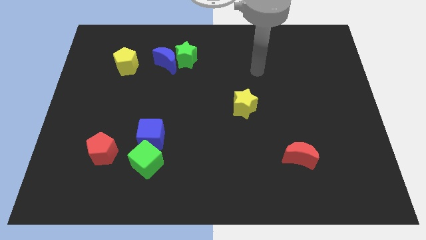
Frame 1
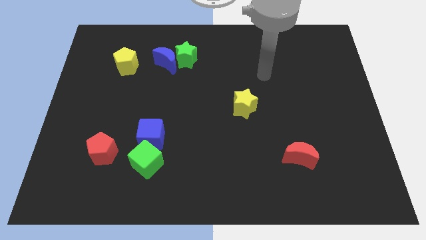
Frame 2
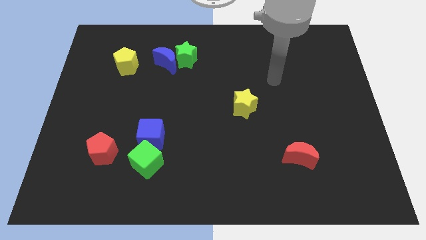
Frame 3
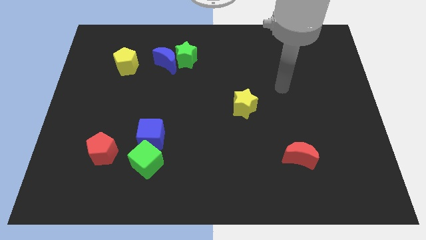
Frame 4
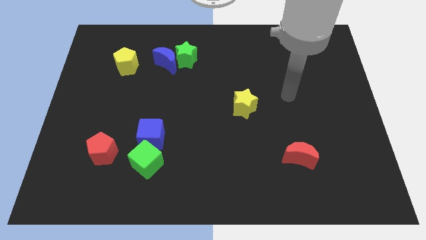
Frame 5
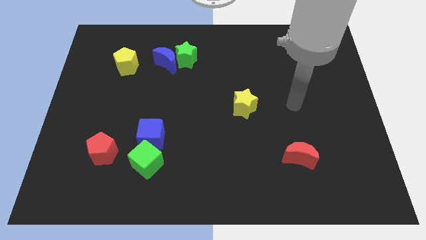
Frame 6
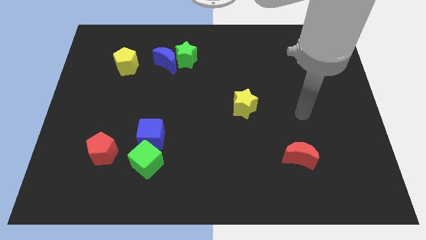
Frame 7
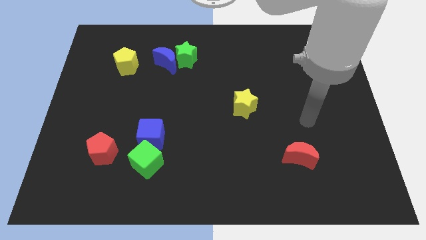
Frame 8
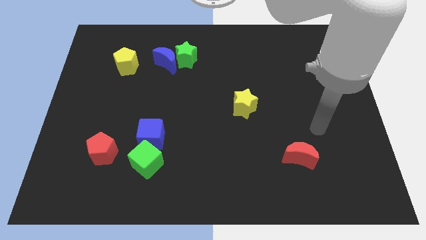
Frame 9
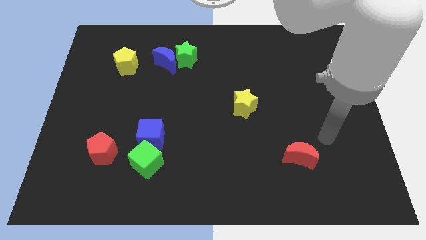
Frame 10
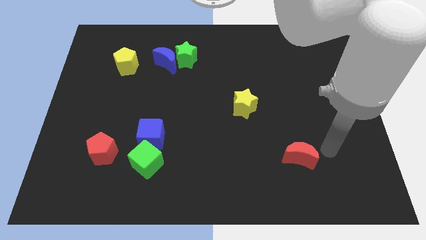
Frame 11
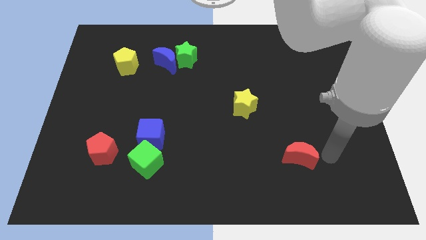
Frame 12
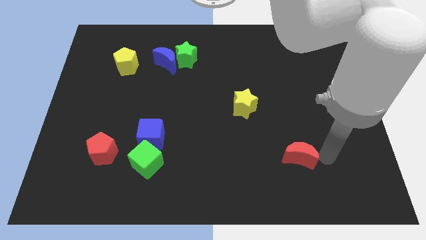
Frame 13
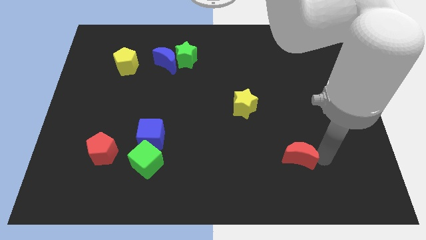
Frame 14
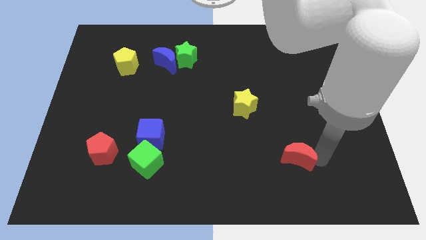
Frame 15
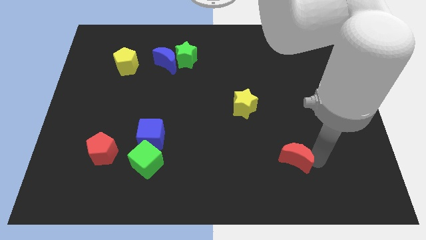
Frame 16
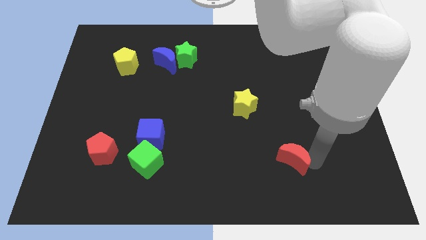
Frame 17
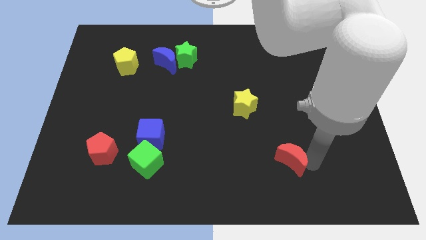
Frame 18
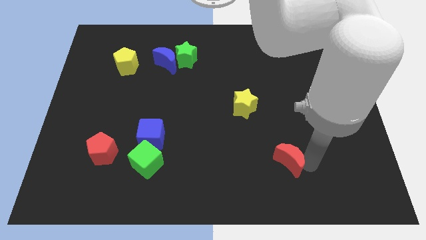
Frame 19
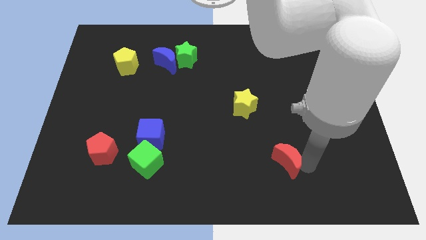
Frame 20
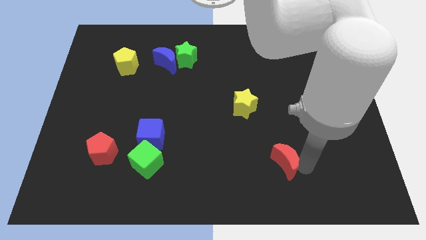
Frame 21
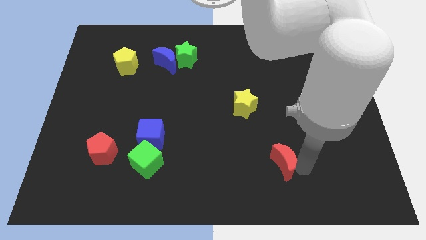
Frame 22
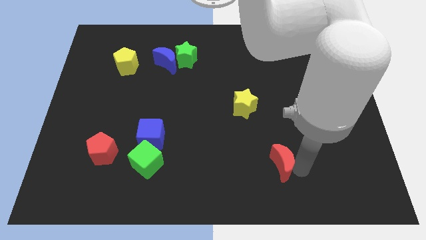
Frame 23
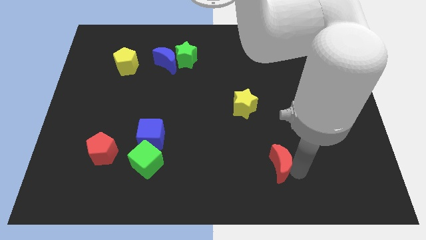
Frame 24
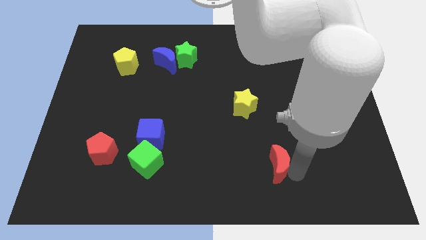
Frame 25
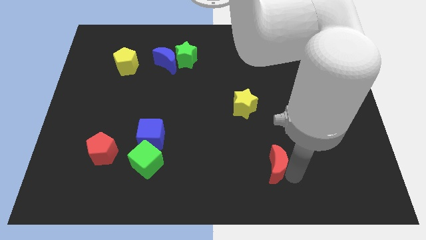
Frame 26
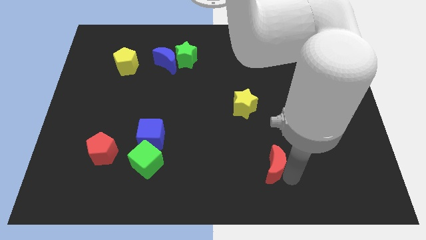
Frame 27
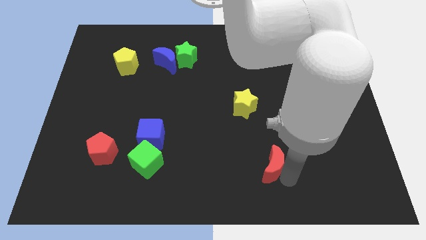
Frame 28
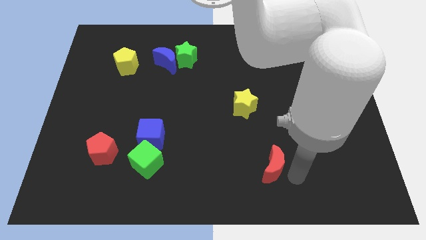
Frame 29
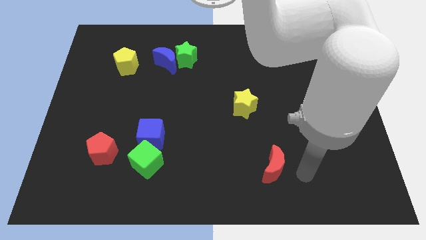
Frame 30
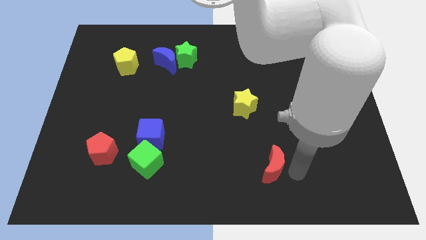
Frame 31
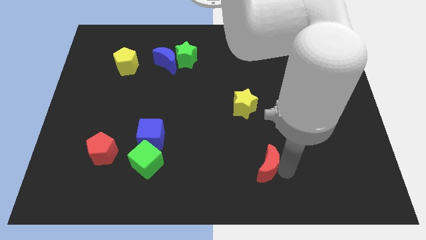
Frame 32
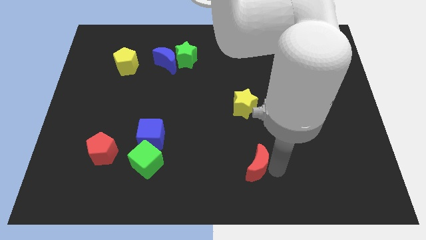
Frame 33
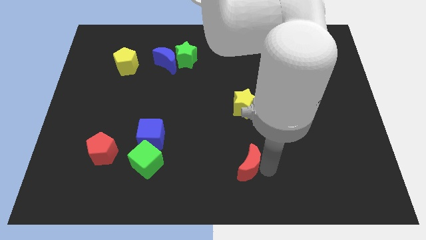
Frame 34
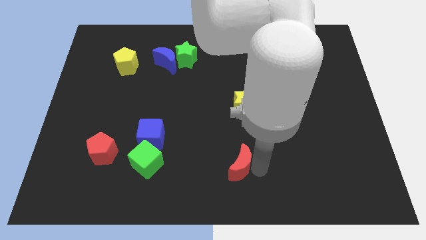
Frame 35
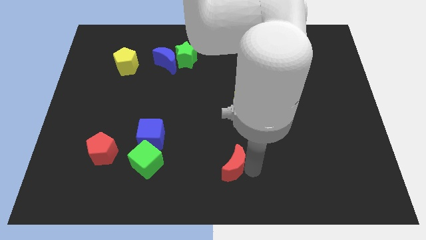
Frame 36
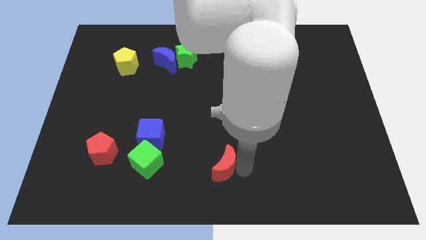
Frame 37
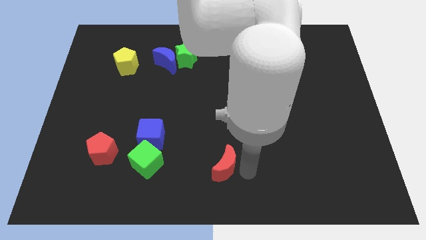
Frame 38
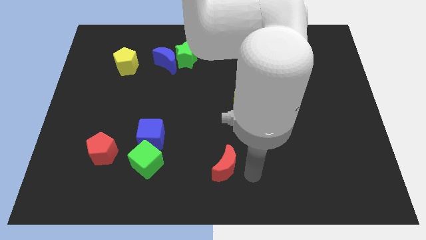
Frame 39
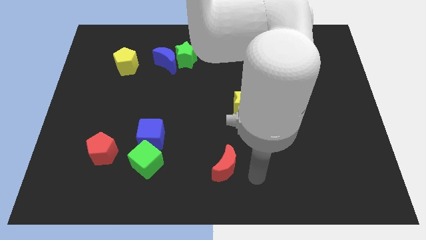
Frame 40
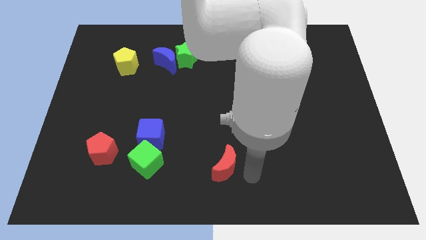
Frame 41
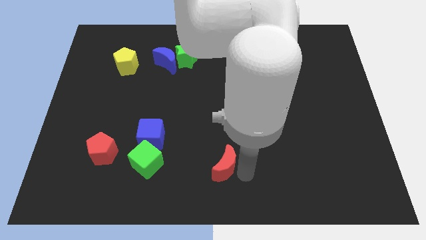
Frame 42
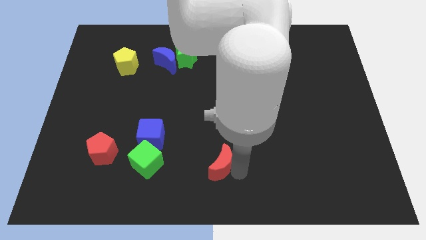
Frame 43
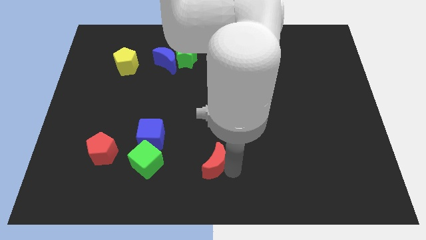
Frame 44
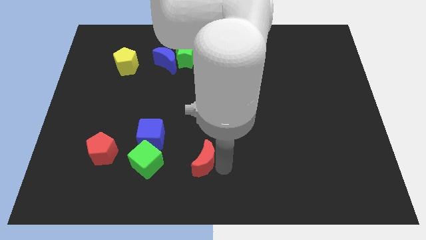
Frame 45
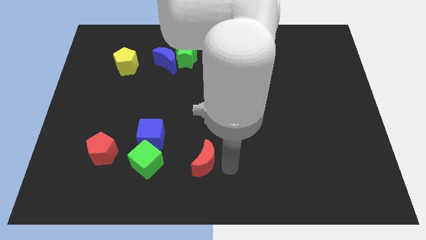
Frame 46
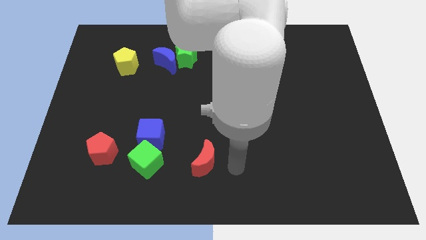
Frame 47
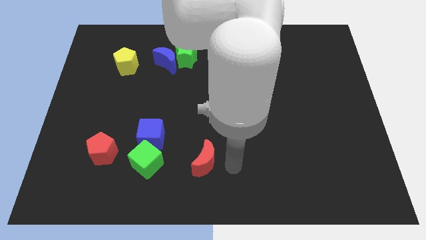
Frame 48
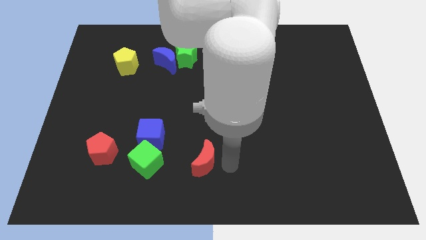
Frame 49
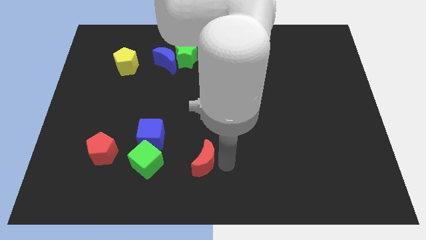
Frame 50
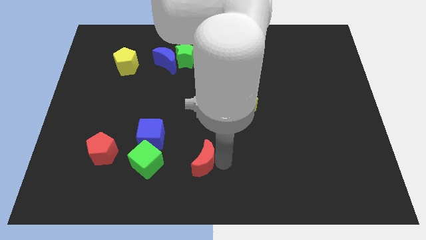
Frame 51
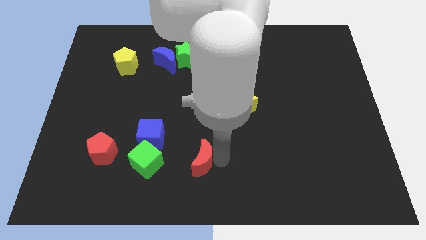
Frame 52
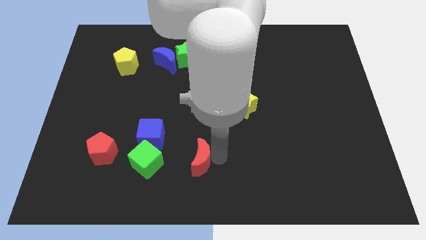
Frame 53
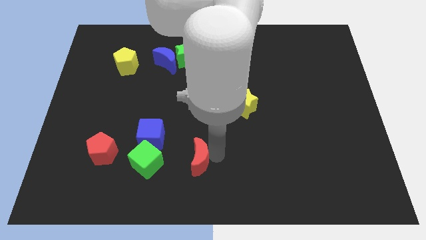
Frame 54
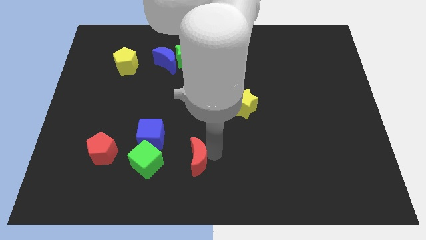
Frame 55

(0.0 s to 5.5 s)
put the red moon to the bottom right of the blue cube

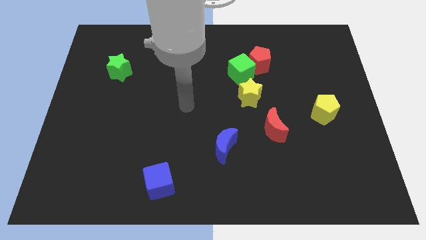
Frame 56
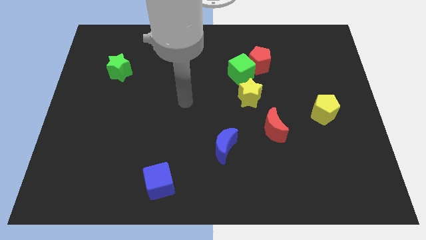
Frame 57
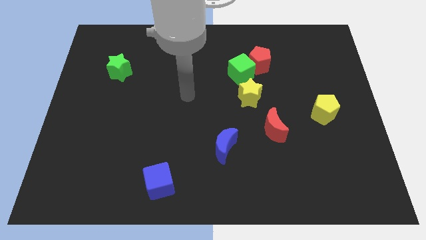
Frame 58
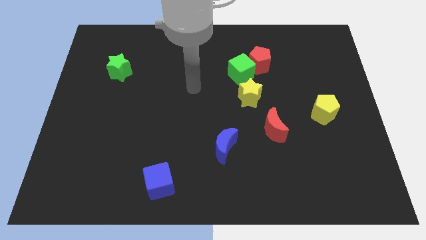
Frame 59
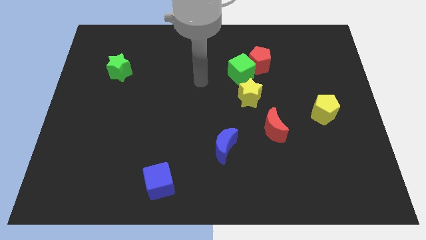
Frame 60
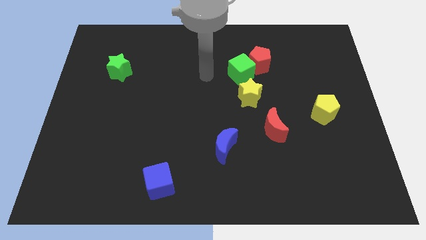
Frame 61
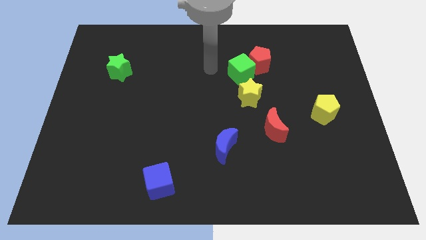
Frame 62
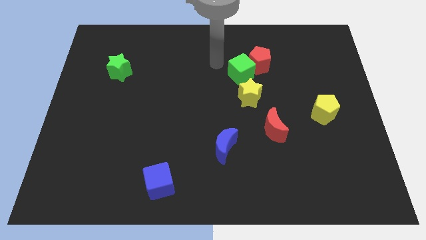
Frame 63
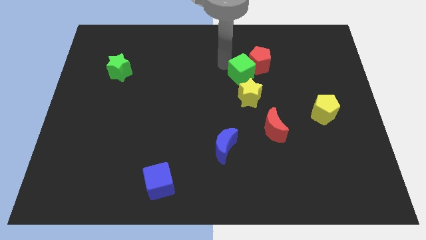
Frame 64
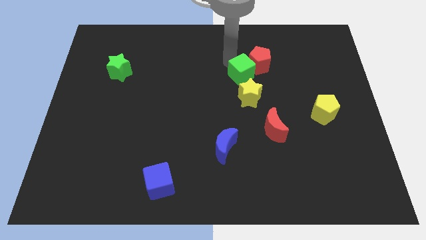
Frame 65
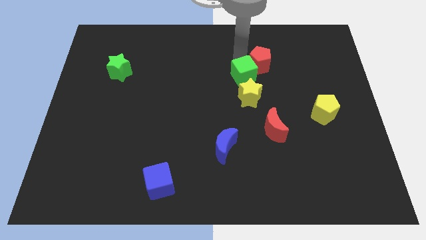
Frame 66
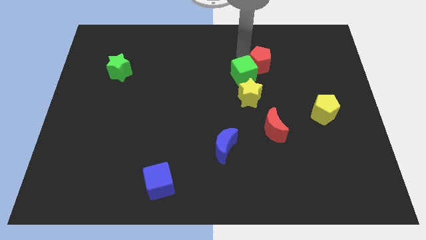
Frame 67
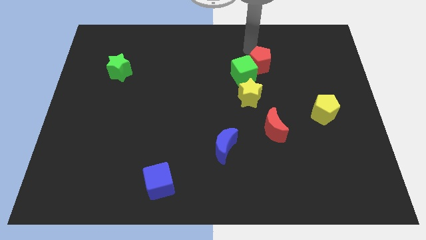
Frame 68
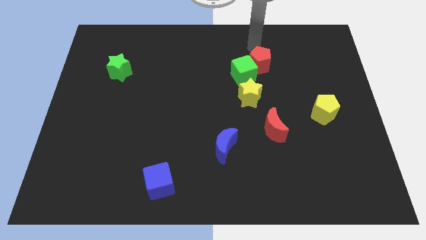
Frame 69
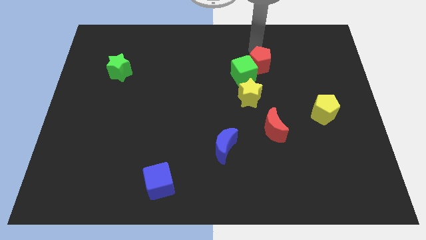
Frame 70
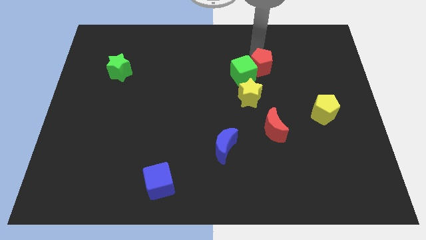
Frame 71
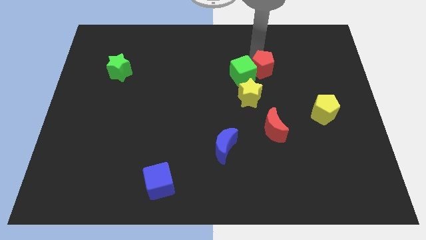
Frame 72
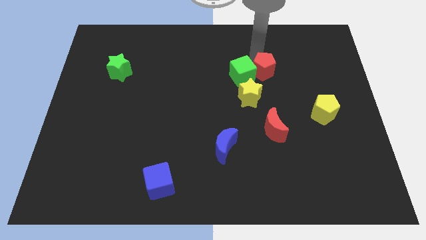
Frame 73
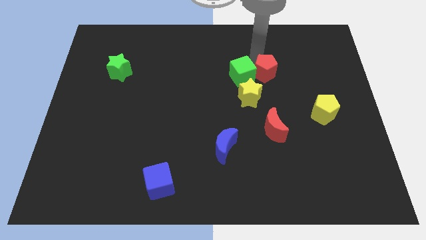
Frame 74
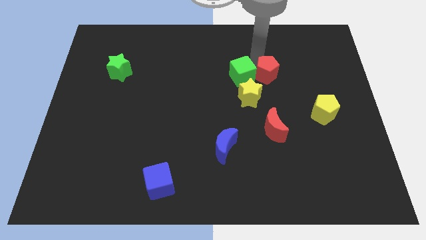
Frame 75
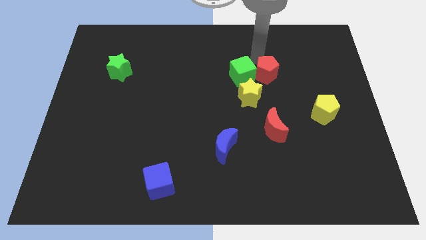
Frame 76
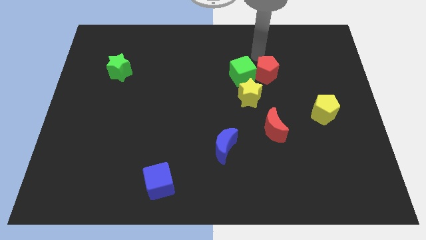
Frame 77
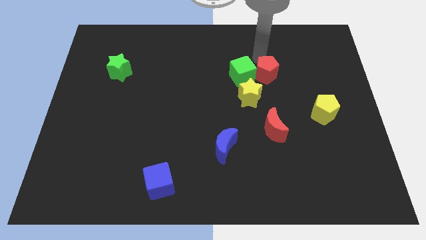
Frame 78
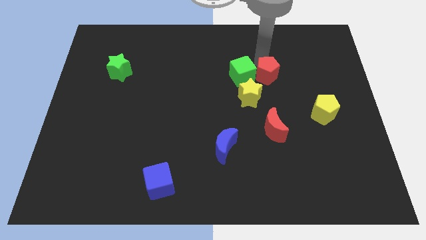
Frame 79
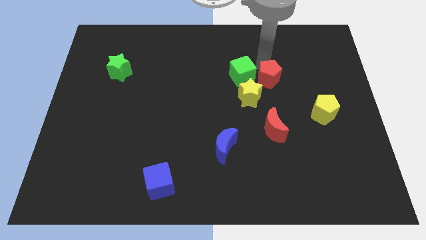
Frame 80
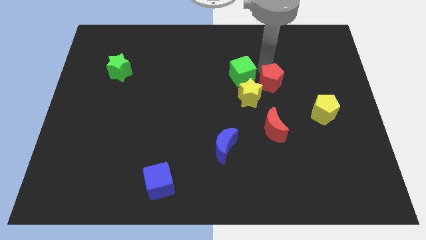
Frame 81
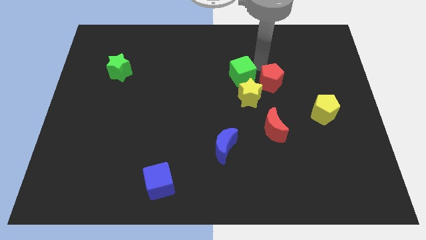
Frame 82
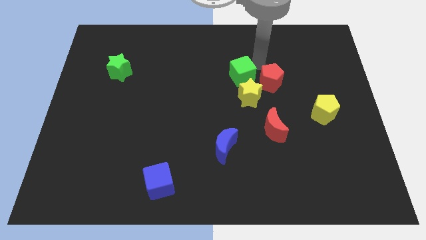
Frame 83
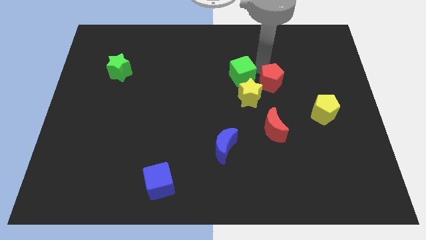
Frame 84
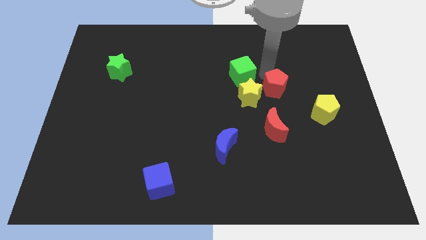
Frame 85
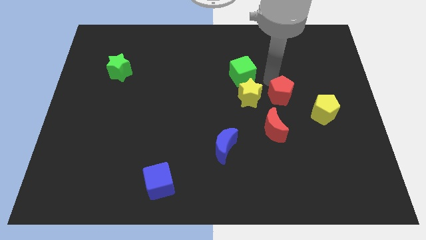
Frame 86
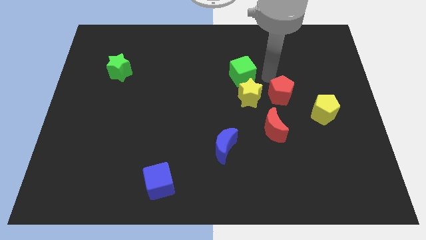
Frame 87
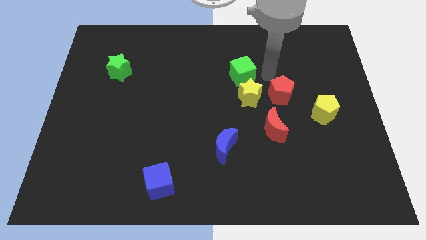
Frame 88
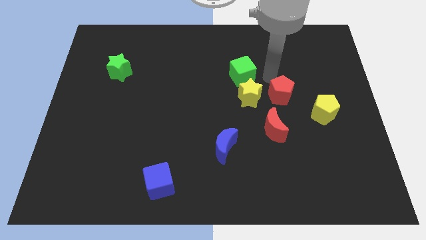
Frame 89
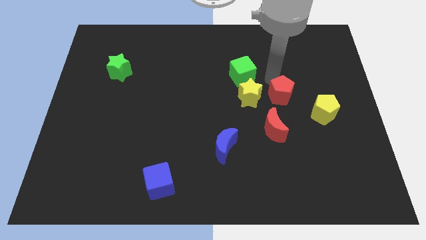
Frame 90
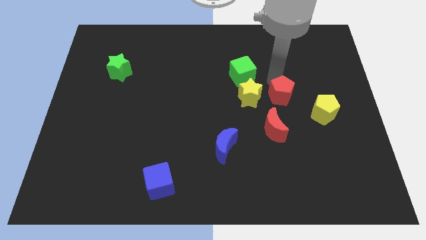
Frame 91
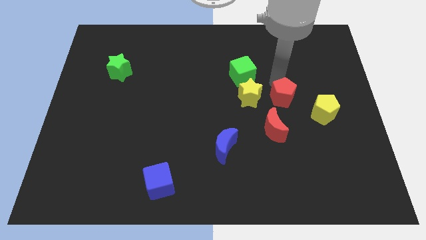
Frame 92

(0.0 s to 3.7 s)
move the red pentagon diagonally up and to the right of the red moon
